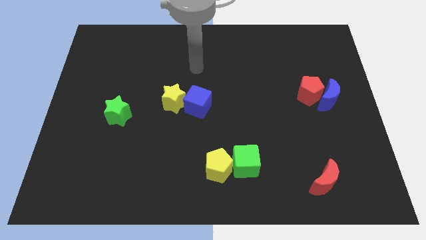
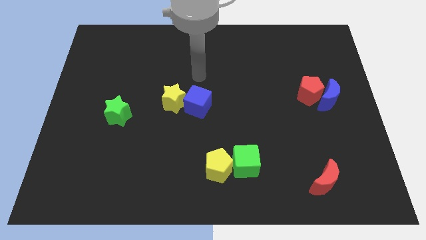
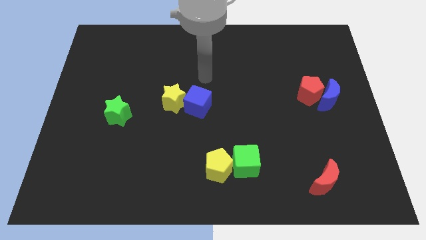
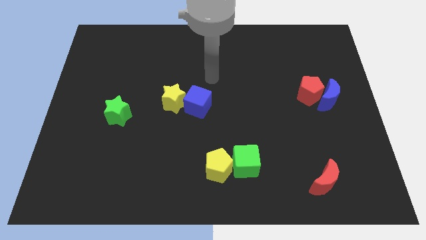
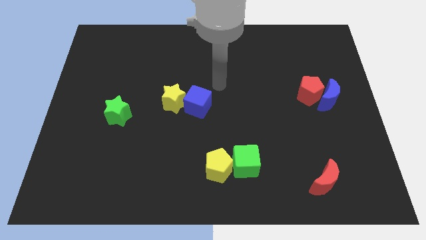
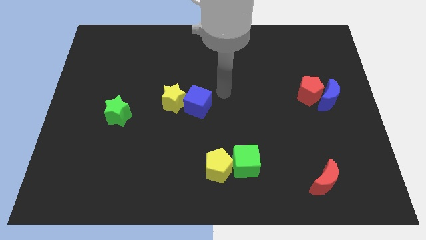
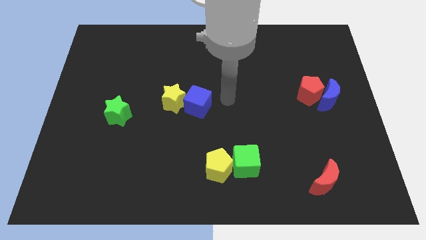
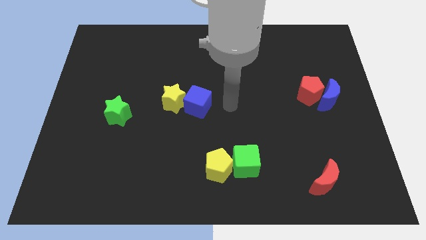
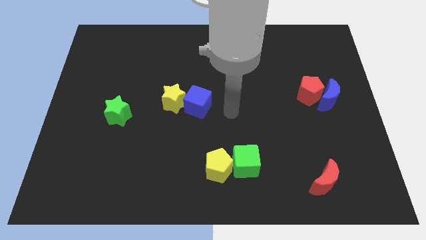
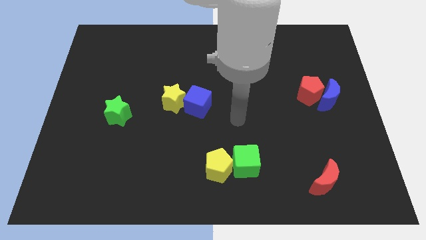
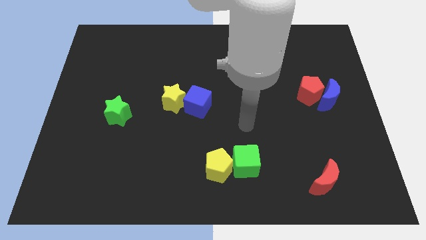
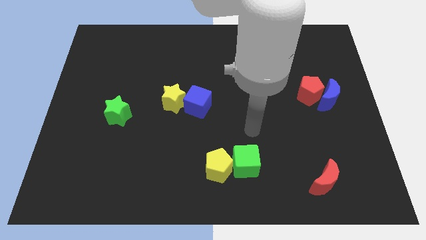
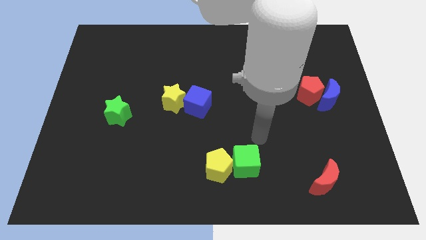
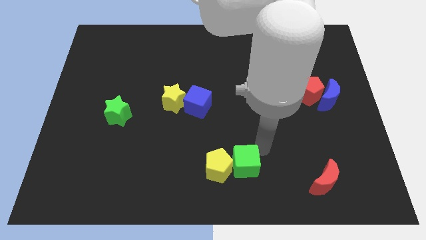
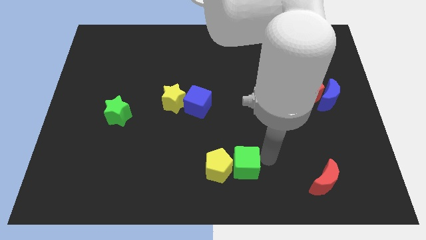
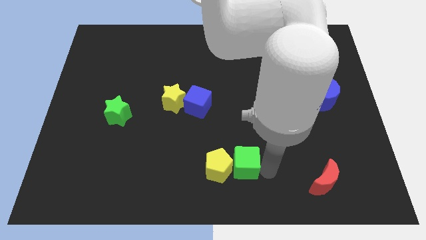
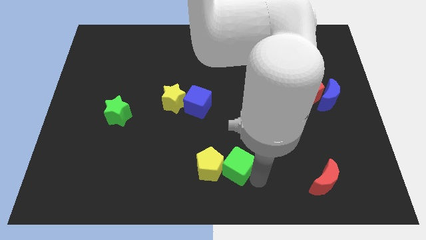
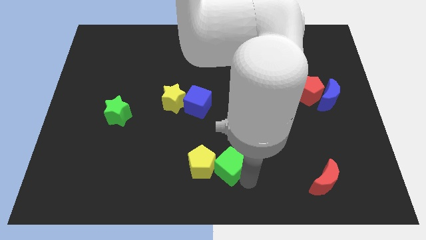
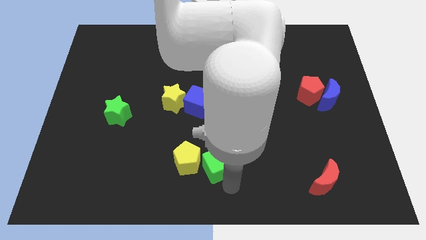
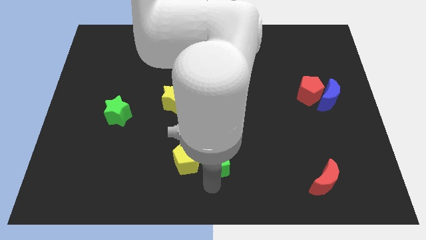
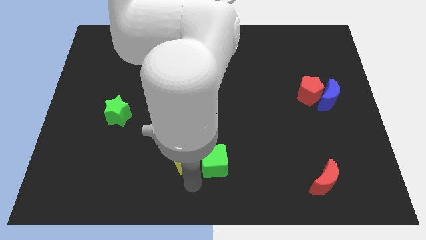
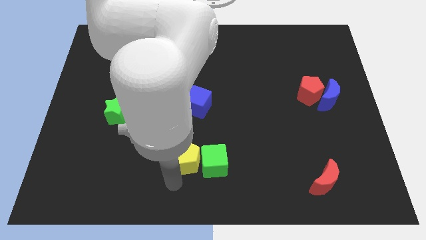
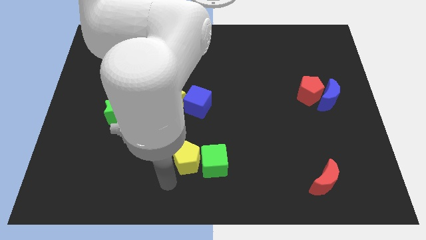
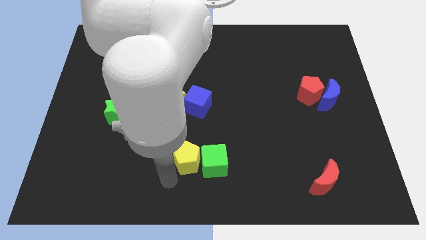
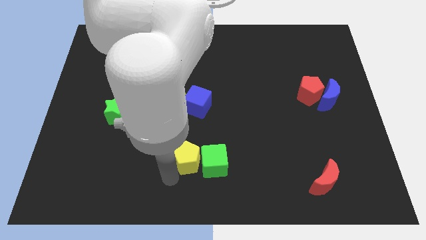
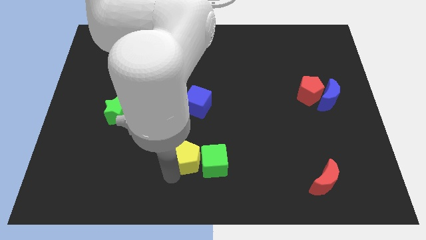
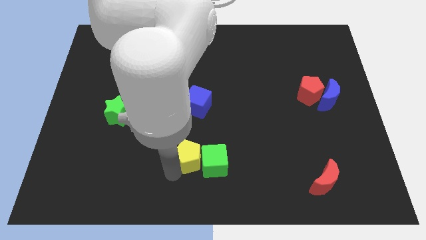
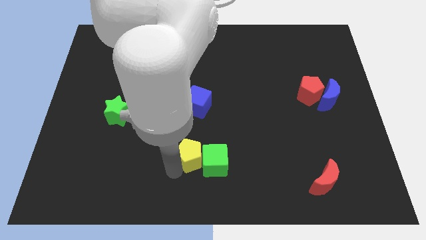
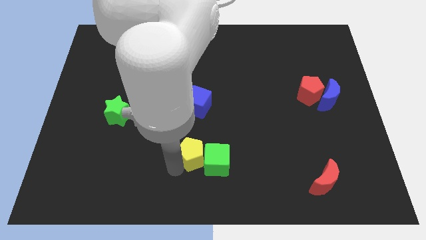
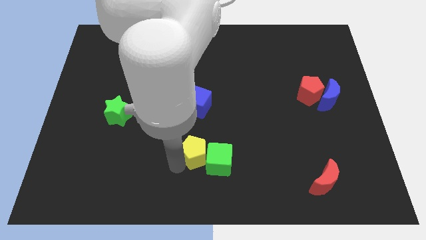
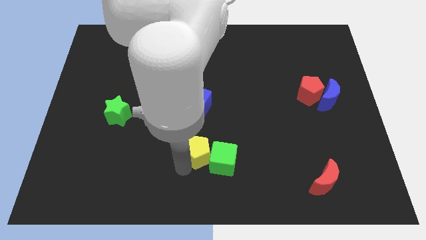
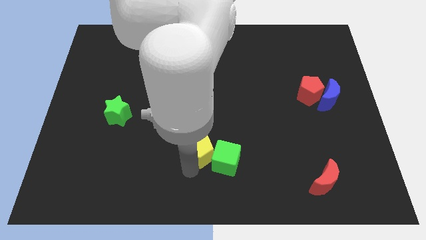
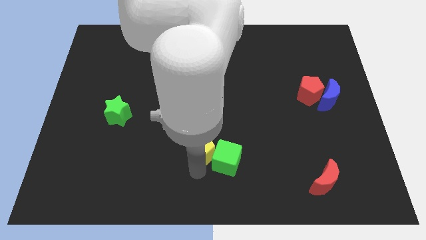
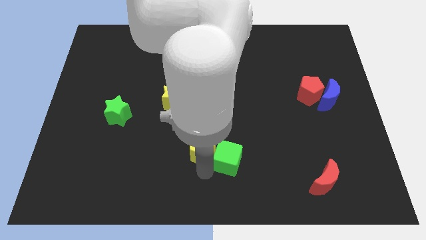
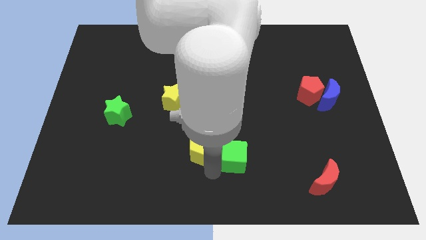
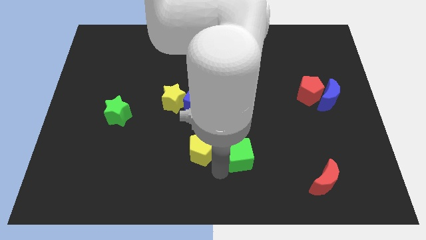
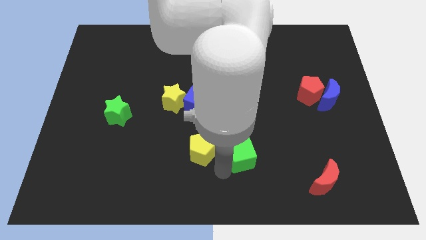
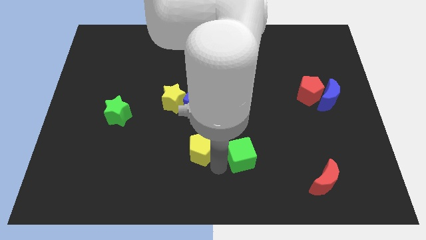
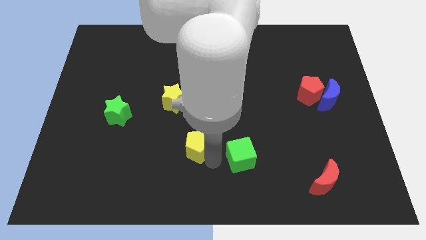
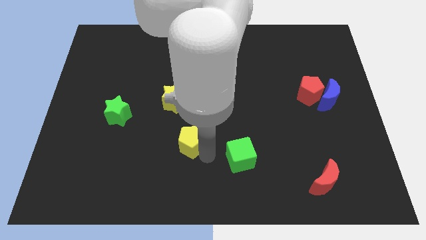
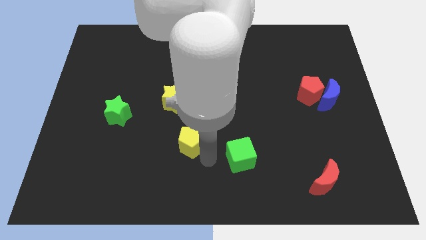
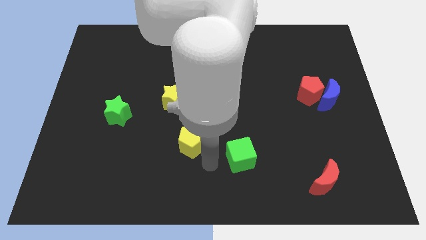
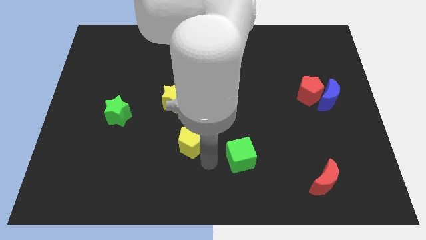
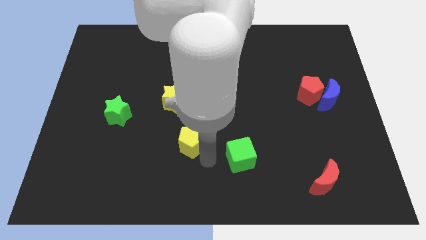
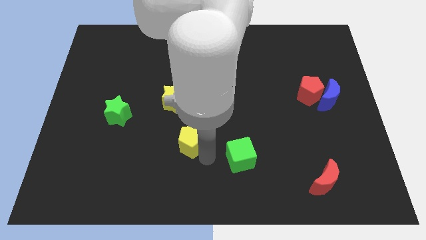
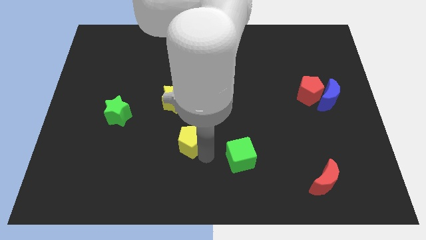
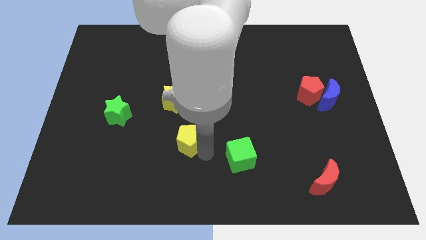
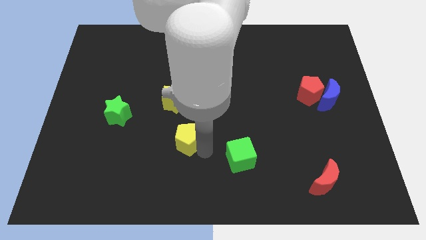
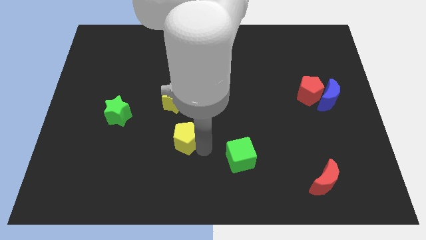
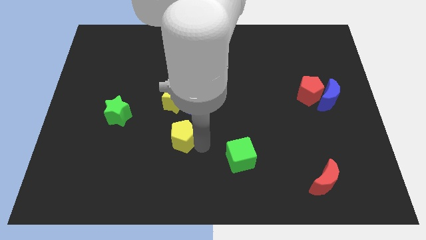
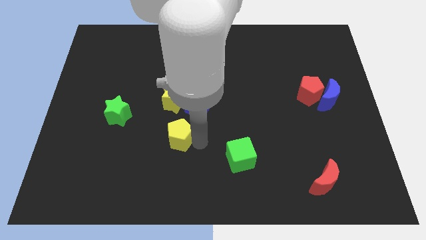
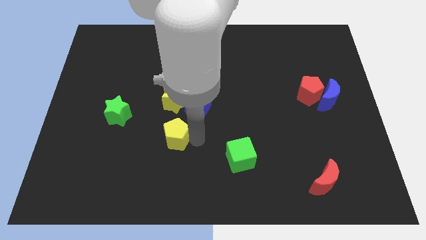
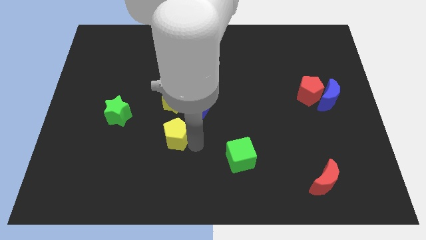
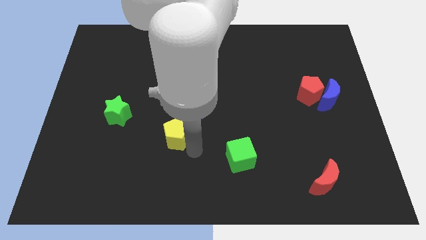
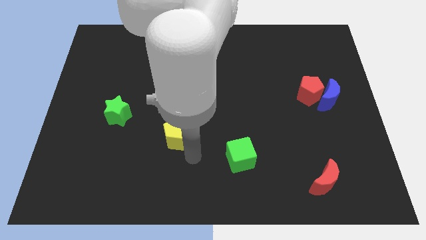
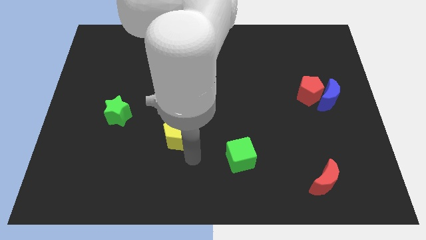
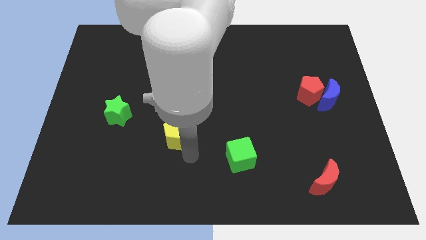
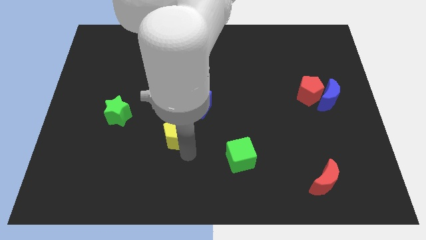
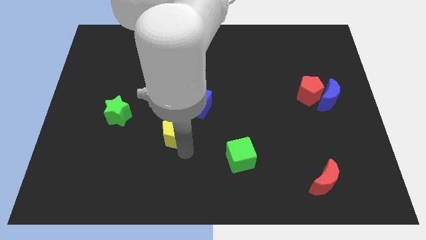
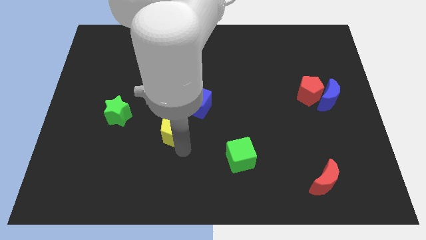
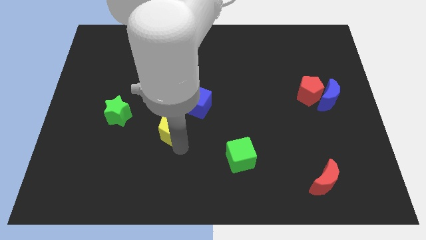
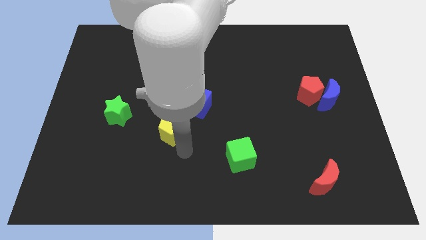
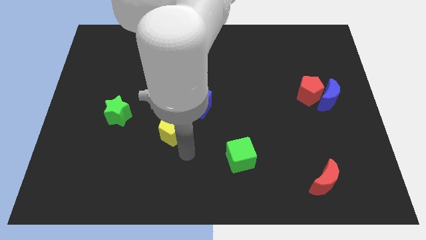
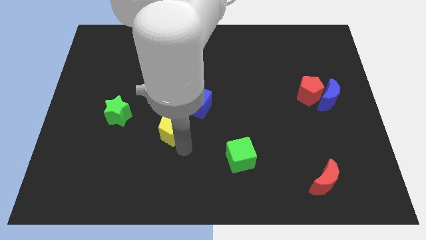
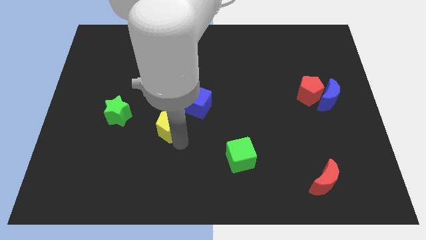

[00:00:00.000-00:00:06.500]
put the yellow pentagon to the right side of the green star

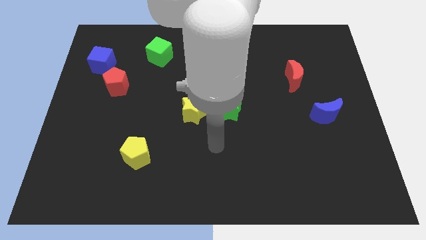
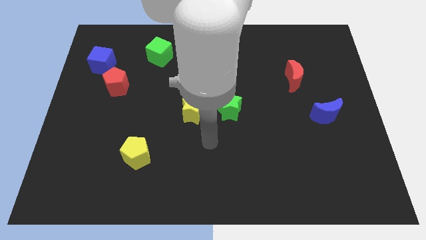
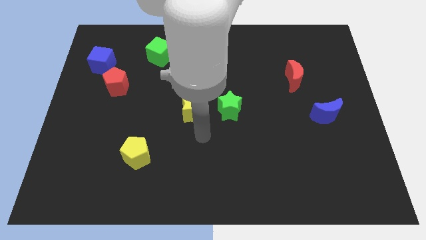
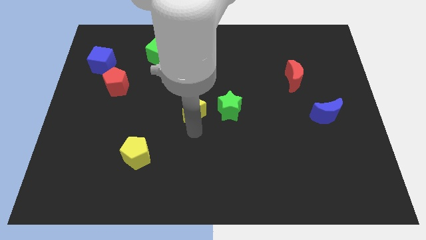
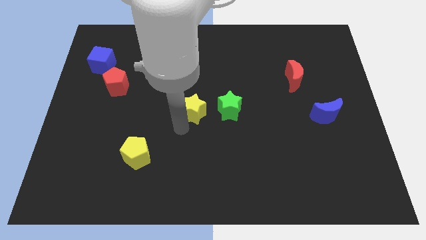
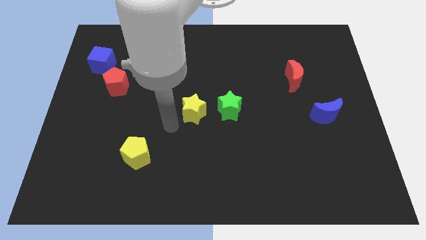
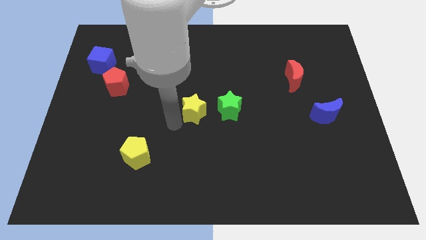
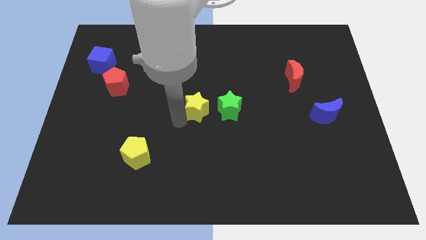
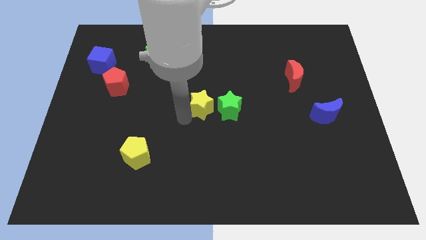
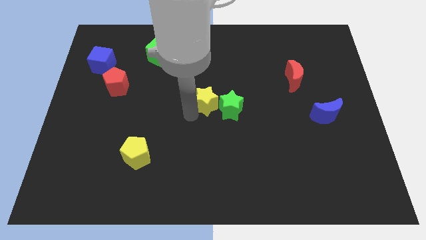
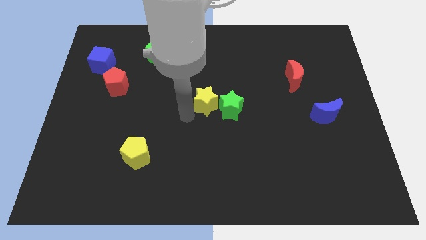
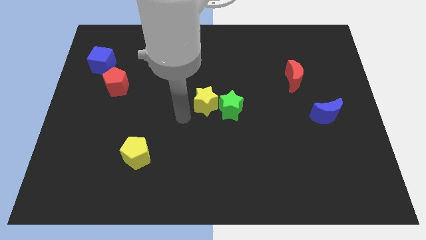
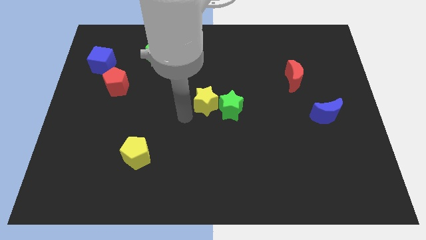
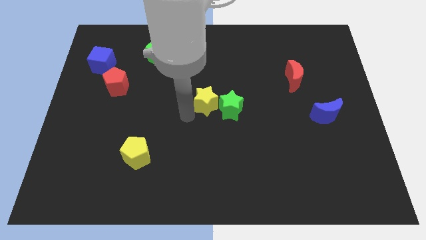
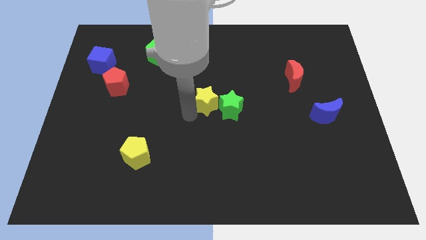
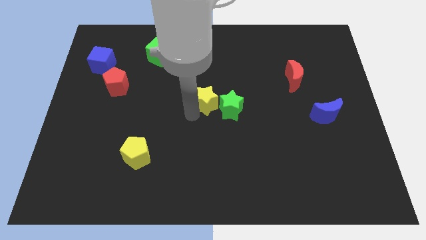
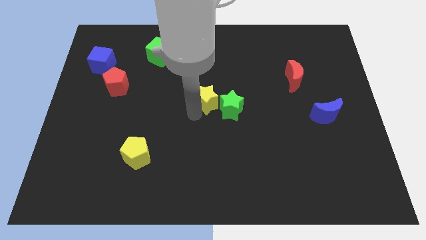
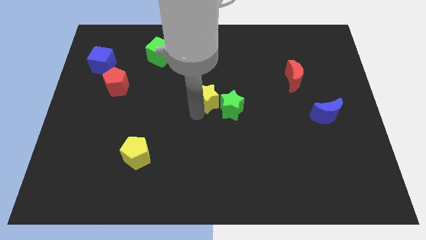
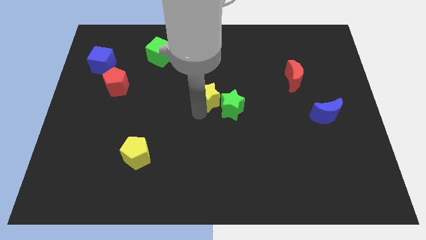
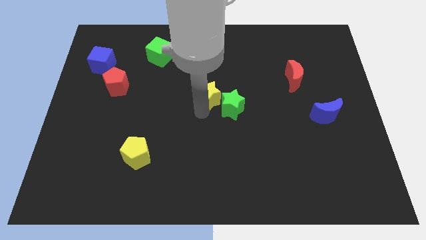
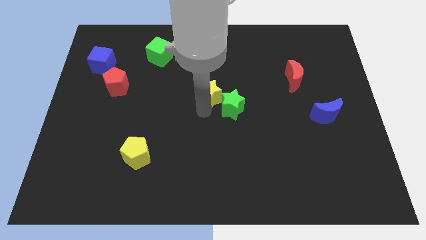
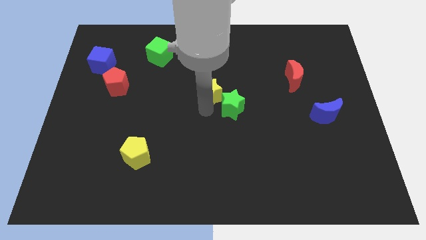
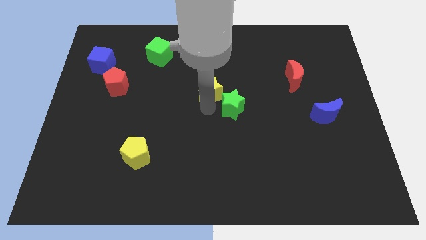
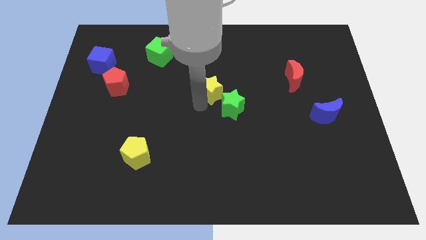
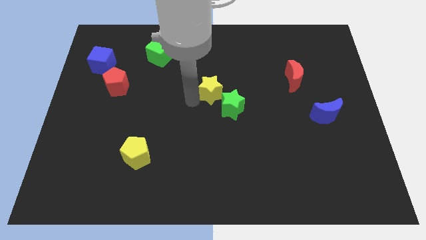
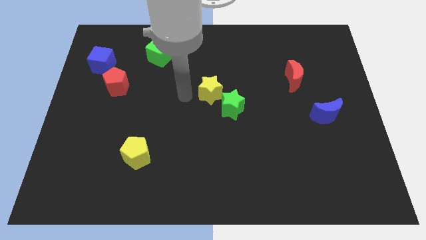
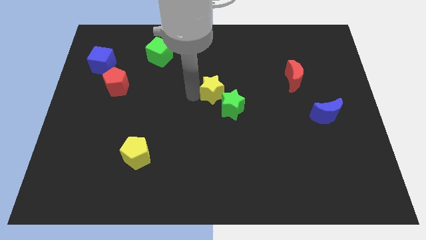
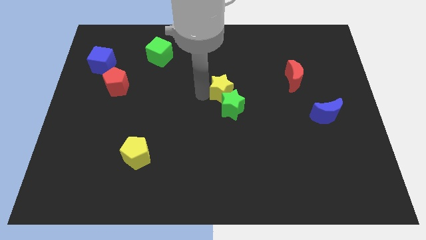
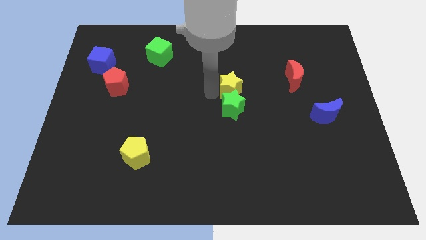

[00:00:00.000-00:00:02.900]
move the yellow star to the top right side of the green star
